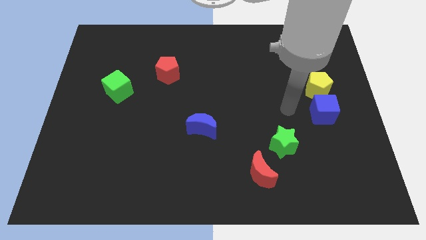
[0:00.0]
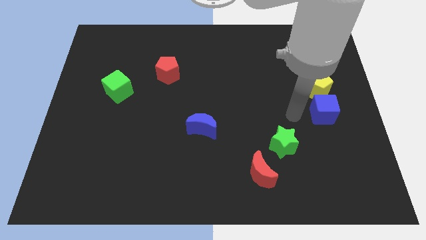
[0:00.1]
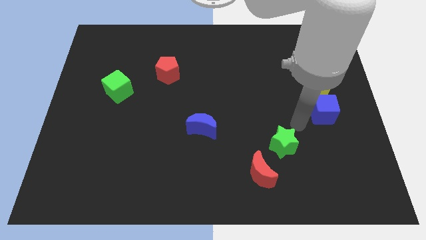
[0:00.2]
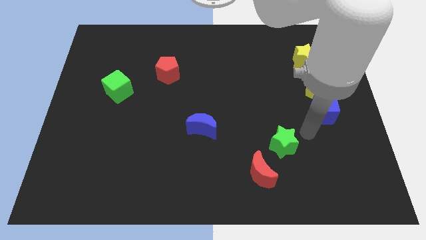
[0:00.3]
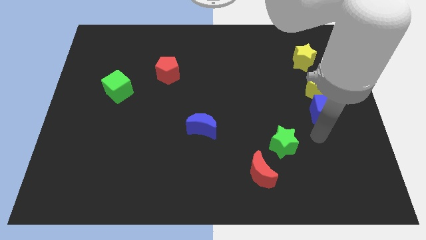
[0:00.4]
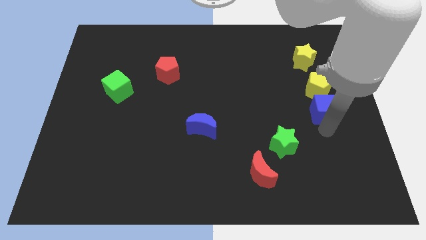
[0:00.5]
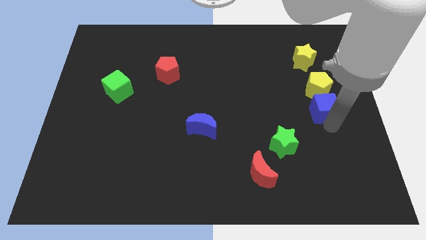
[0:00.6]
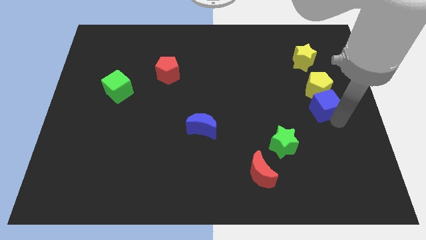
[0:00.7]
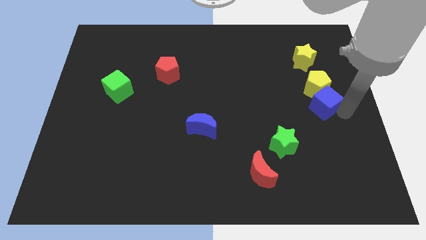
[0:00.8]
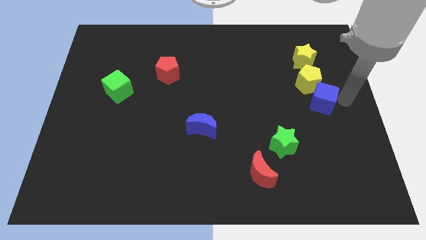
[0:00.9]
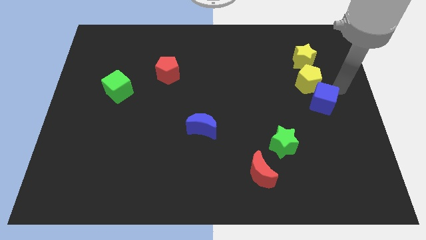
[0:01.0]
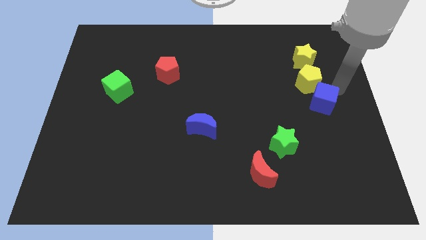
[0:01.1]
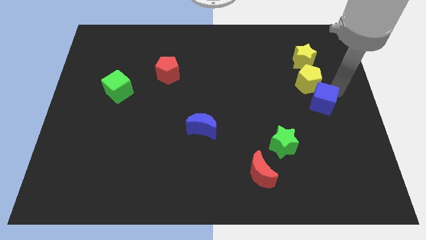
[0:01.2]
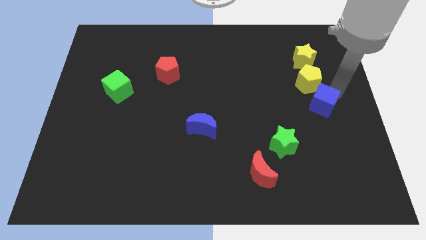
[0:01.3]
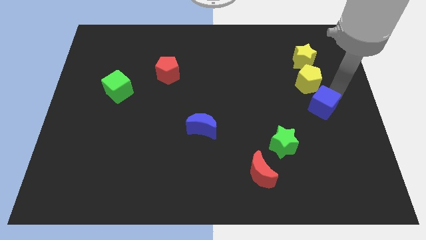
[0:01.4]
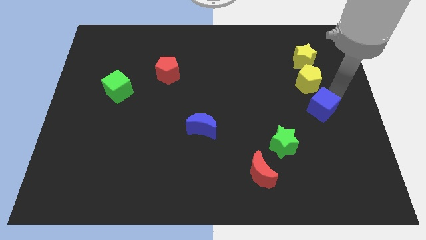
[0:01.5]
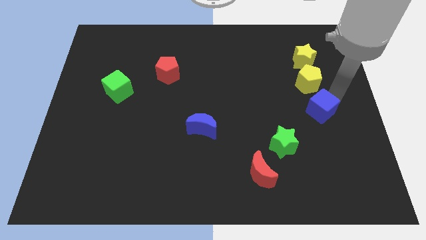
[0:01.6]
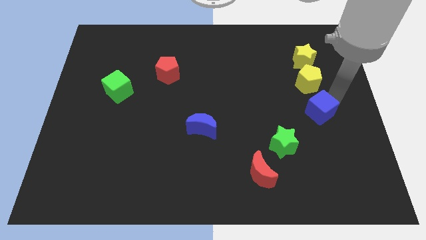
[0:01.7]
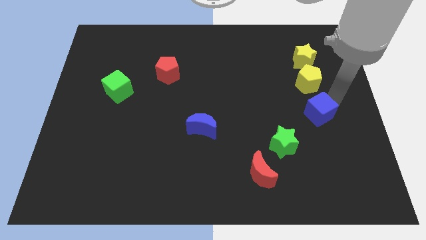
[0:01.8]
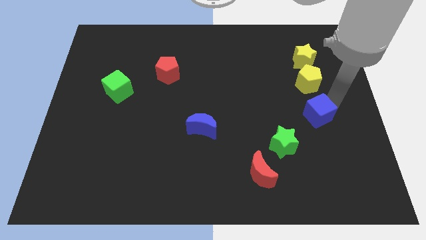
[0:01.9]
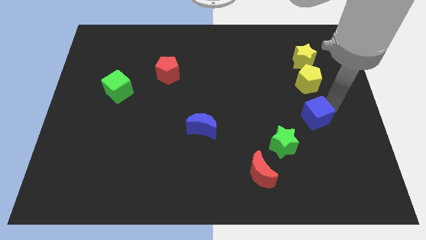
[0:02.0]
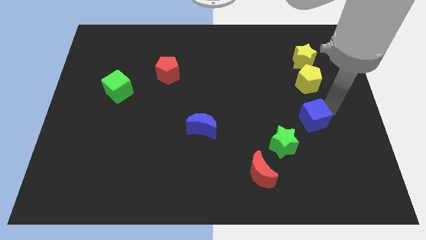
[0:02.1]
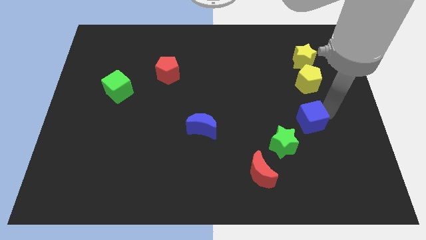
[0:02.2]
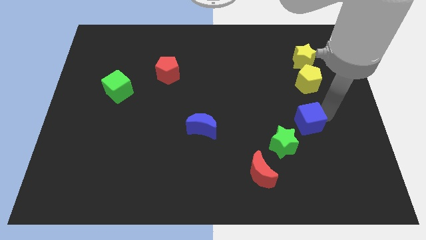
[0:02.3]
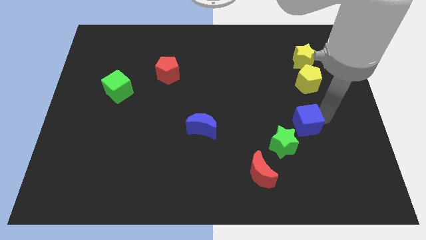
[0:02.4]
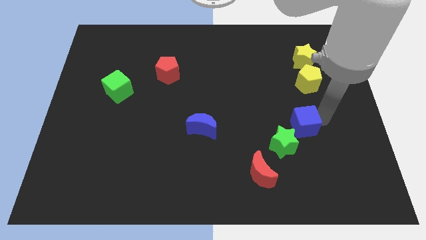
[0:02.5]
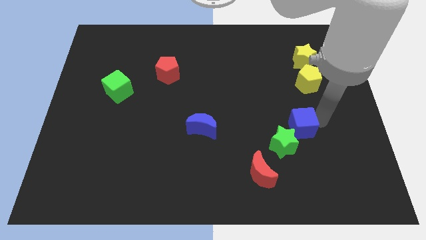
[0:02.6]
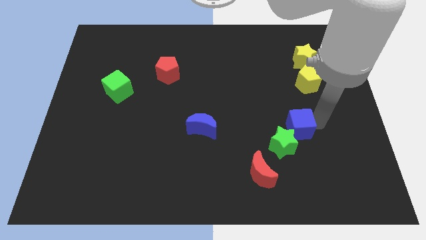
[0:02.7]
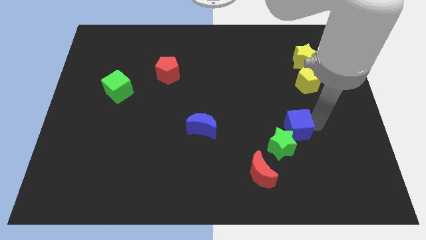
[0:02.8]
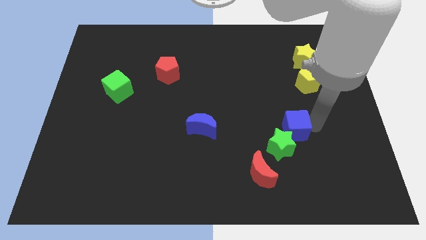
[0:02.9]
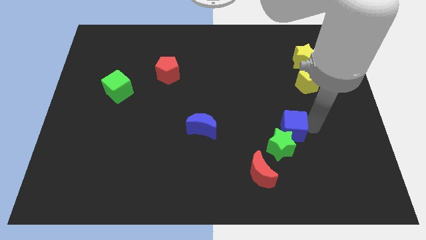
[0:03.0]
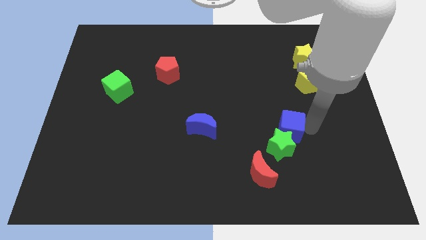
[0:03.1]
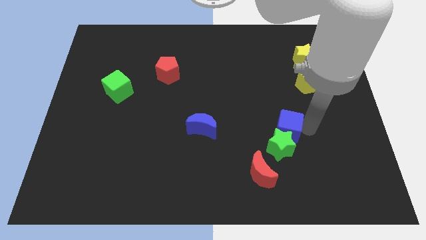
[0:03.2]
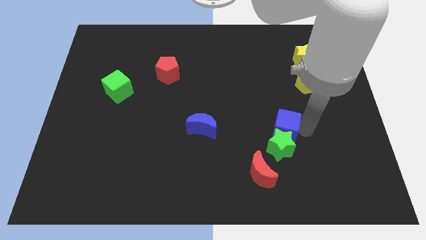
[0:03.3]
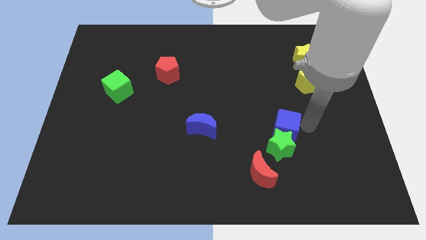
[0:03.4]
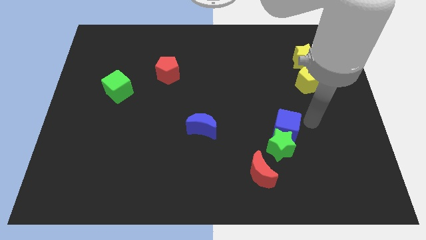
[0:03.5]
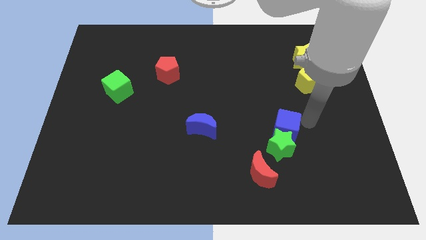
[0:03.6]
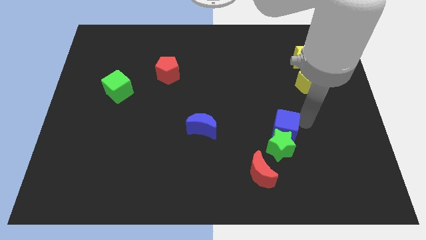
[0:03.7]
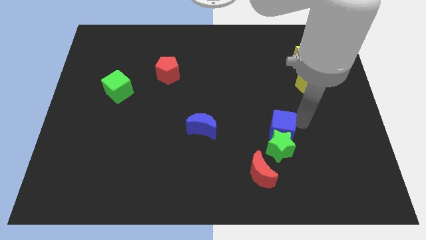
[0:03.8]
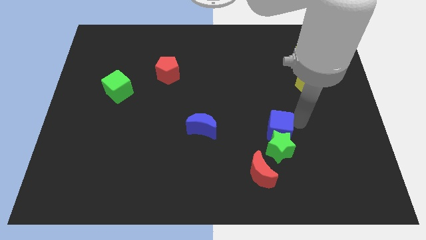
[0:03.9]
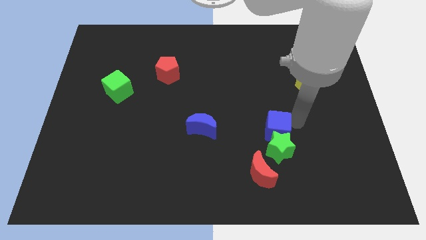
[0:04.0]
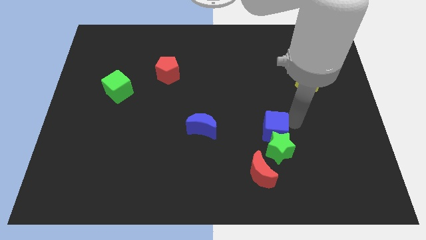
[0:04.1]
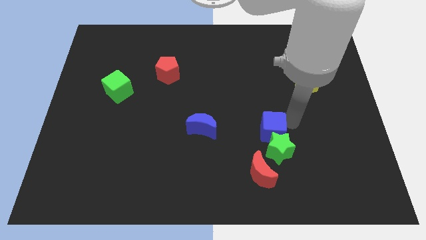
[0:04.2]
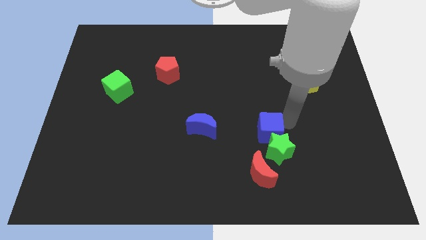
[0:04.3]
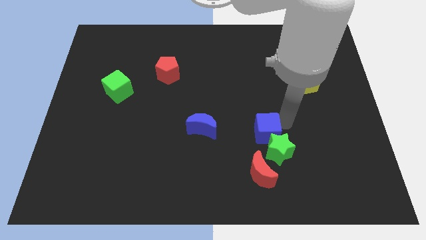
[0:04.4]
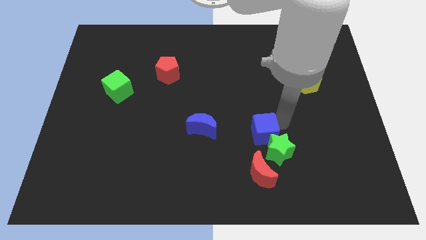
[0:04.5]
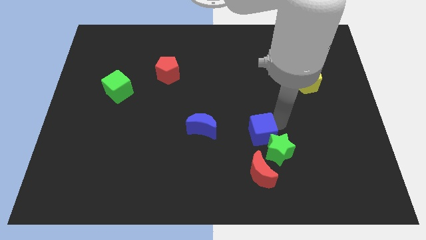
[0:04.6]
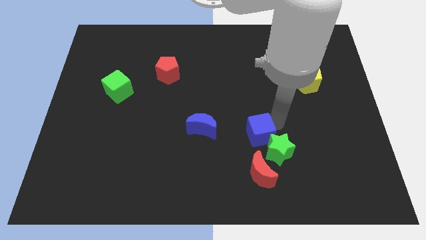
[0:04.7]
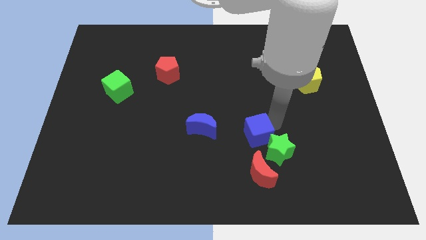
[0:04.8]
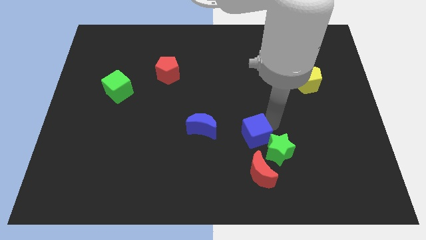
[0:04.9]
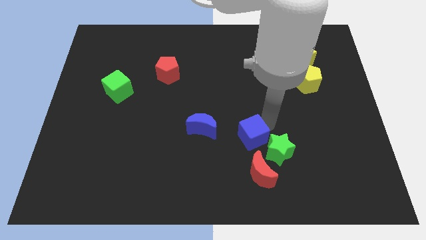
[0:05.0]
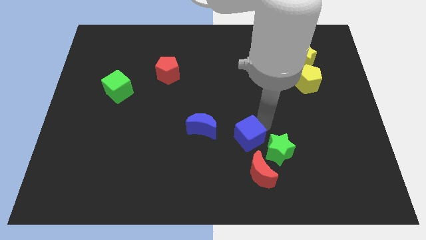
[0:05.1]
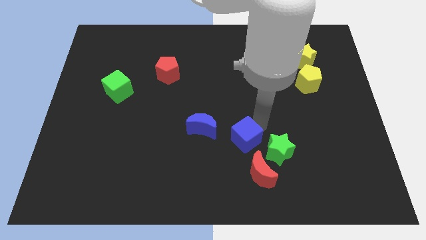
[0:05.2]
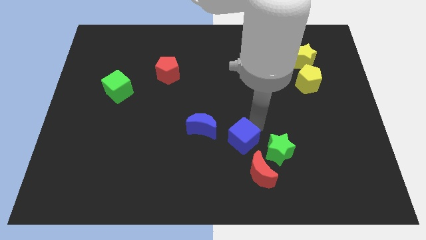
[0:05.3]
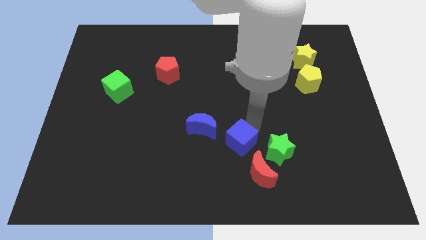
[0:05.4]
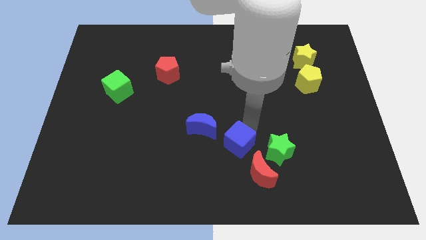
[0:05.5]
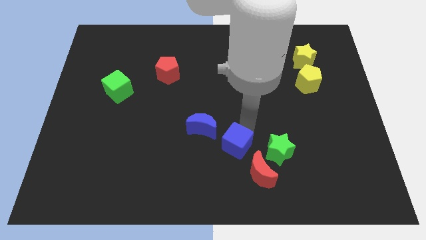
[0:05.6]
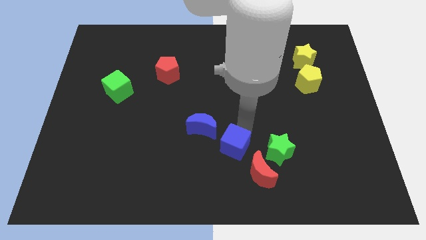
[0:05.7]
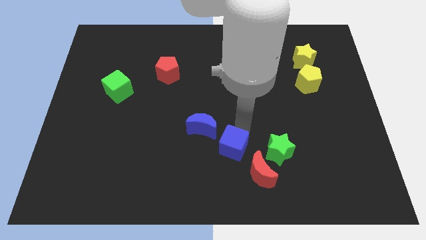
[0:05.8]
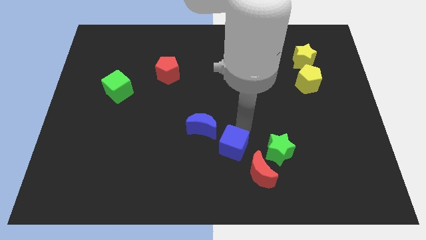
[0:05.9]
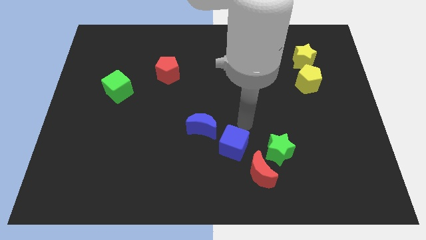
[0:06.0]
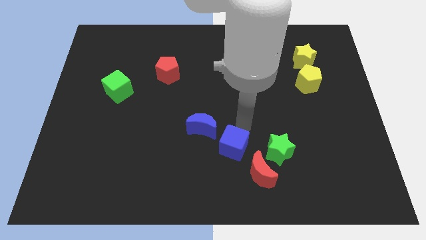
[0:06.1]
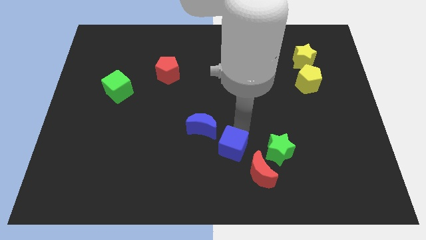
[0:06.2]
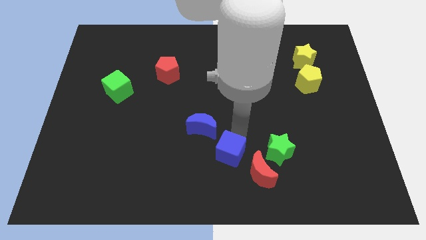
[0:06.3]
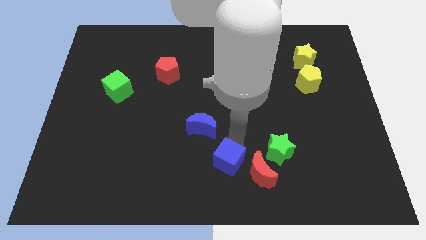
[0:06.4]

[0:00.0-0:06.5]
push the blue cube left of the red moon
